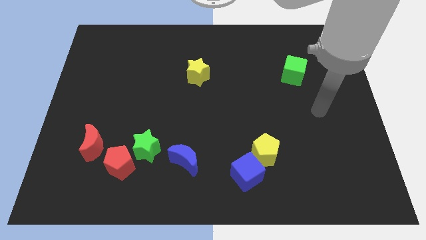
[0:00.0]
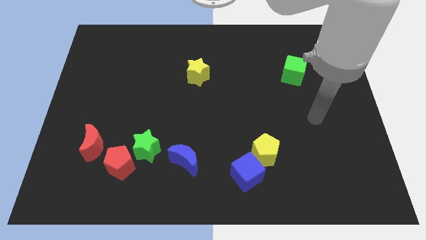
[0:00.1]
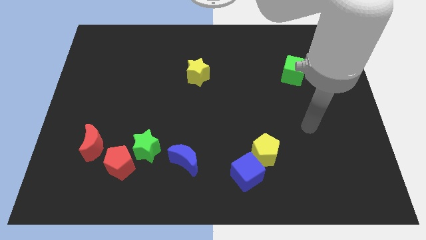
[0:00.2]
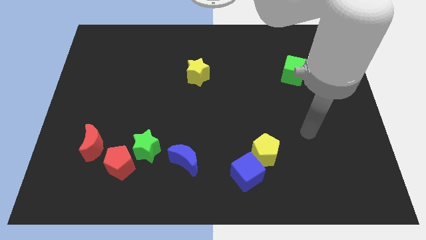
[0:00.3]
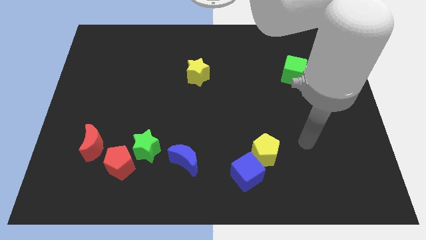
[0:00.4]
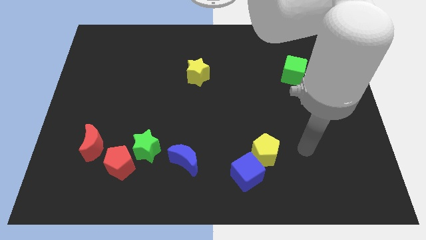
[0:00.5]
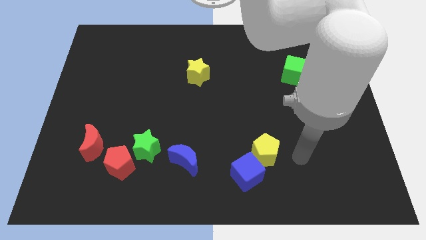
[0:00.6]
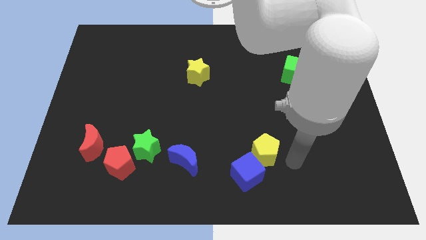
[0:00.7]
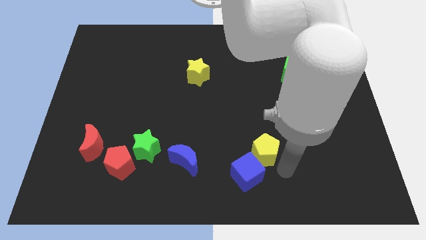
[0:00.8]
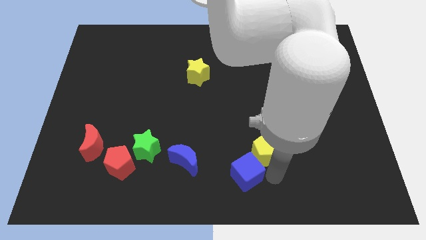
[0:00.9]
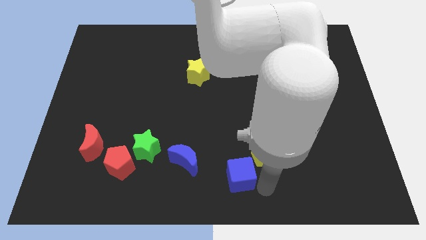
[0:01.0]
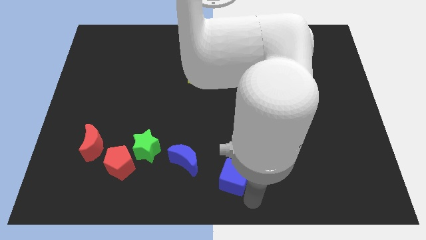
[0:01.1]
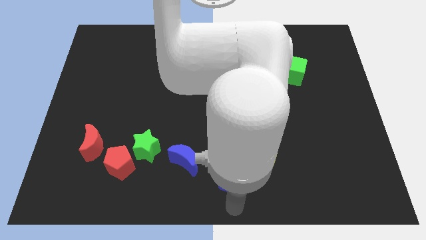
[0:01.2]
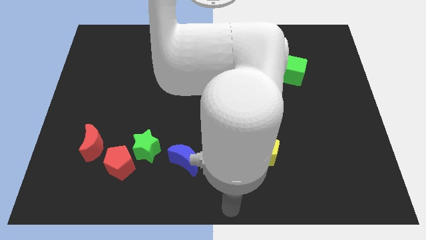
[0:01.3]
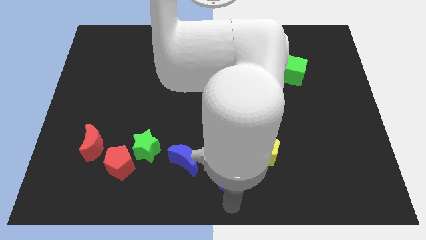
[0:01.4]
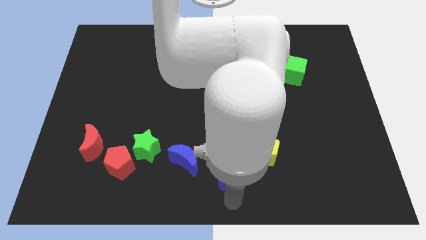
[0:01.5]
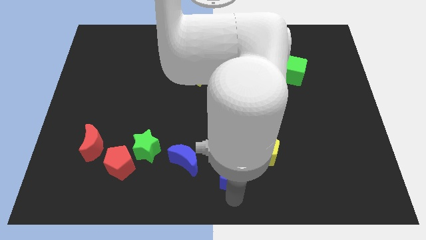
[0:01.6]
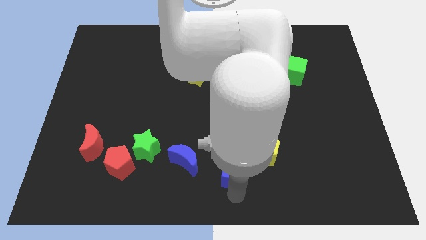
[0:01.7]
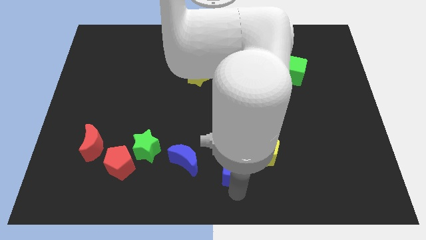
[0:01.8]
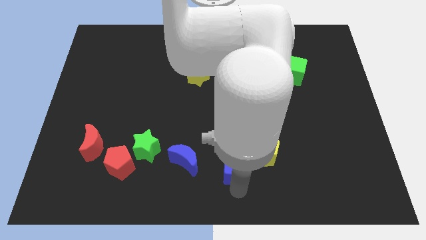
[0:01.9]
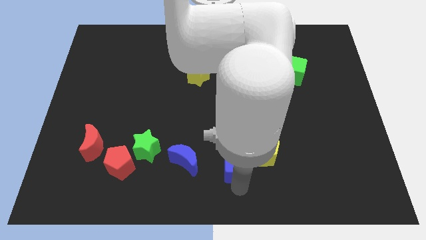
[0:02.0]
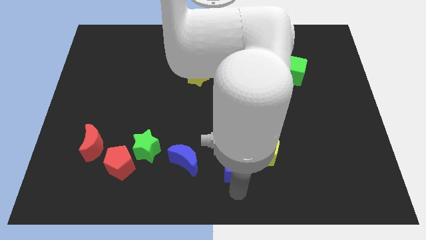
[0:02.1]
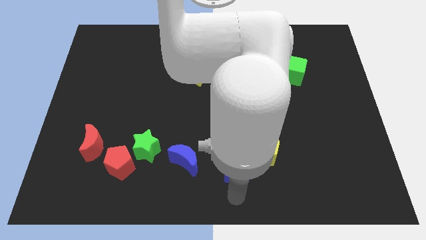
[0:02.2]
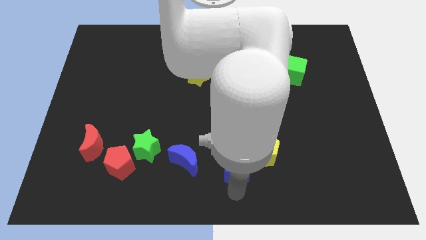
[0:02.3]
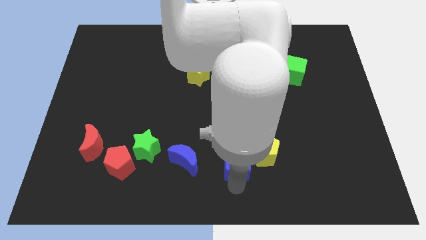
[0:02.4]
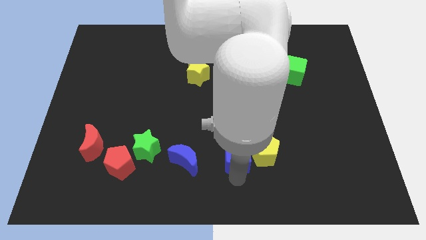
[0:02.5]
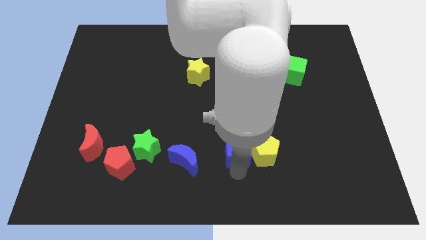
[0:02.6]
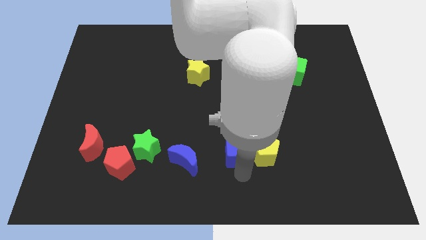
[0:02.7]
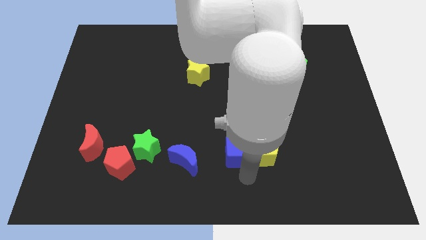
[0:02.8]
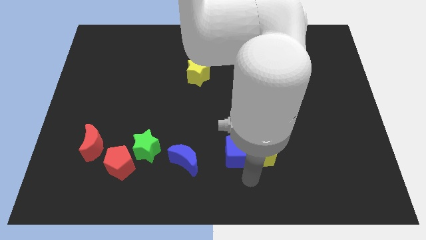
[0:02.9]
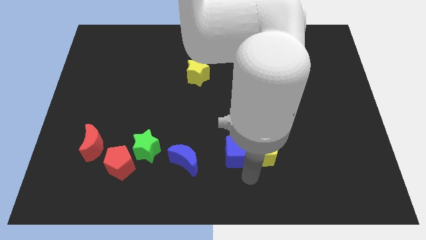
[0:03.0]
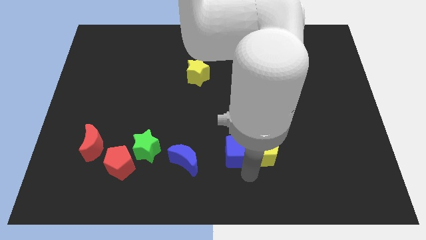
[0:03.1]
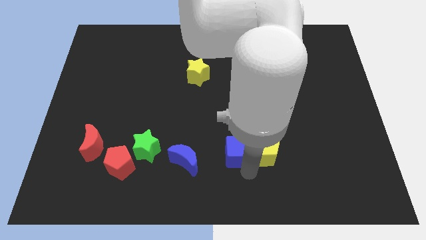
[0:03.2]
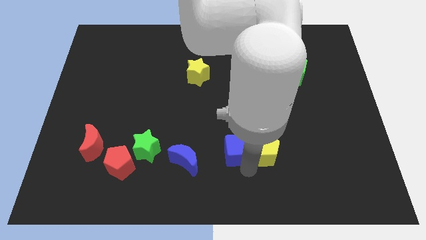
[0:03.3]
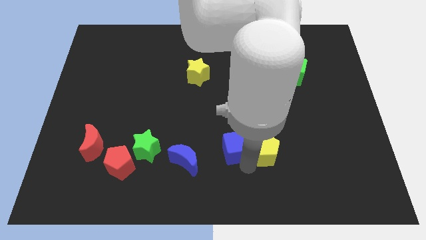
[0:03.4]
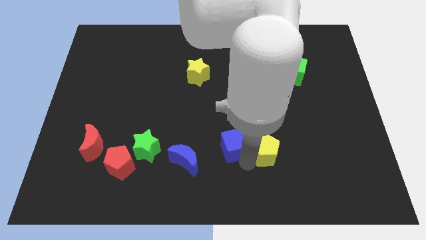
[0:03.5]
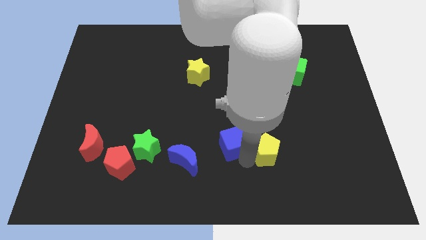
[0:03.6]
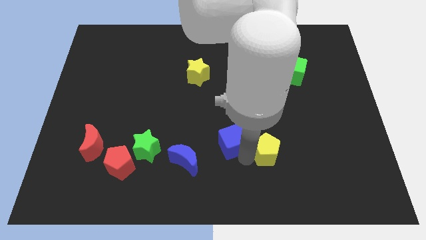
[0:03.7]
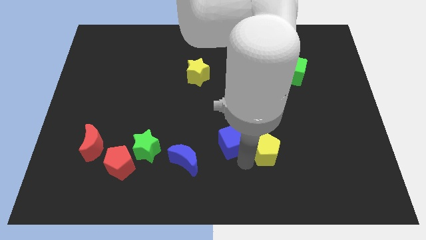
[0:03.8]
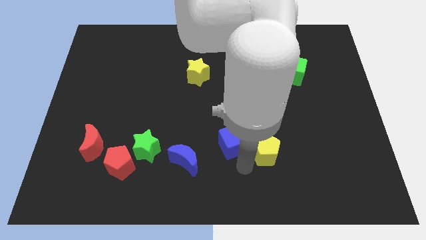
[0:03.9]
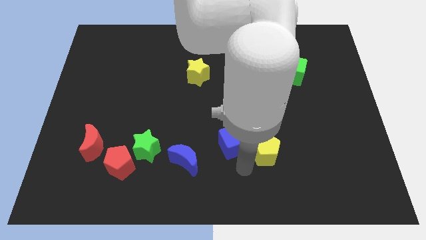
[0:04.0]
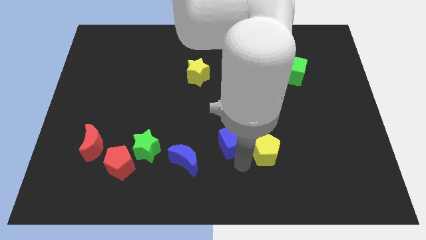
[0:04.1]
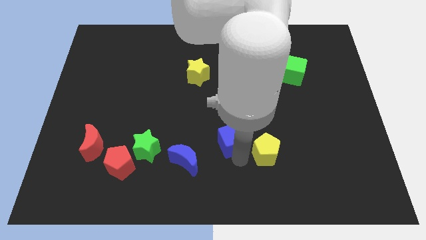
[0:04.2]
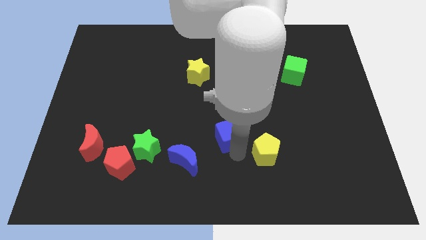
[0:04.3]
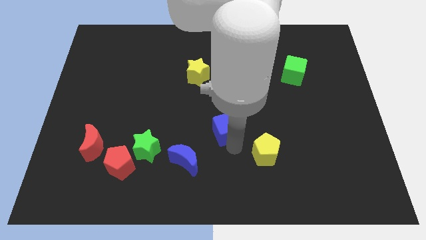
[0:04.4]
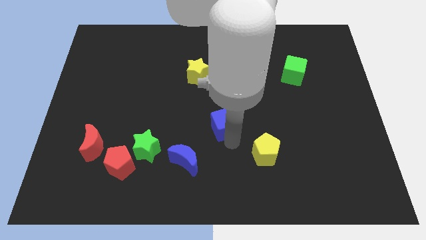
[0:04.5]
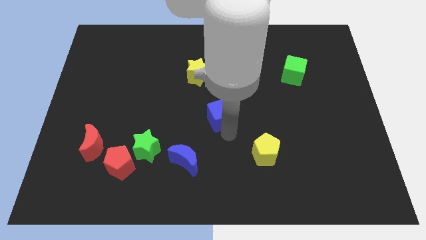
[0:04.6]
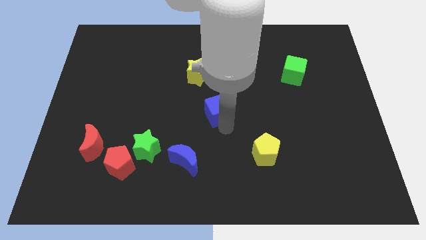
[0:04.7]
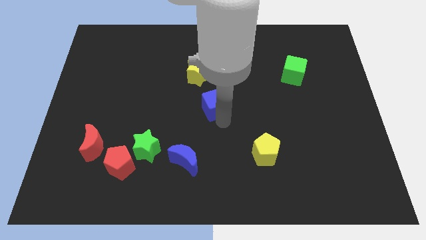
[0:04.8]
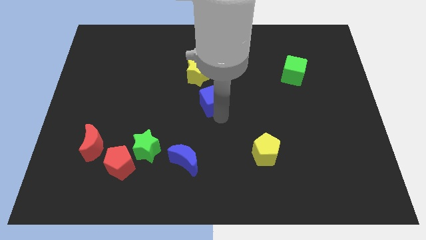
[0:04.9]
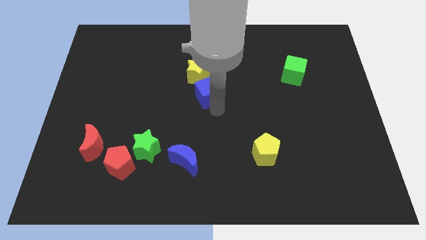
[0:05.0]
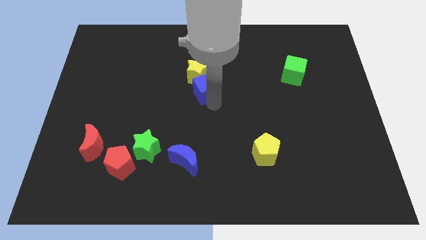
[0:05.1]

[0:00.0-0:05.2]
push the blue cube next to the yellow star
